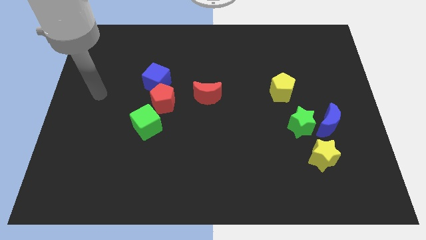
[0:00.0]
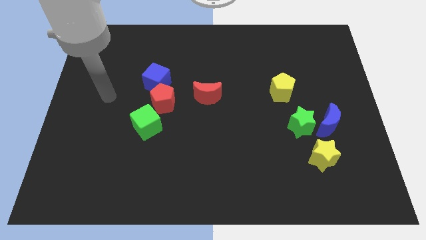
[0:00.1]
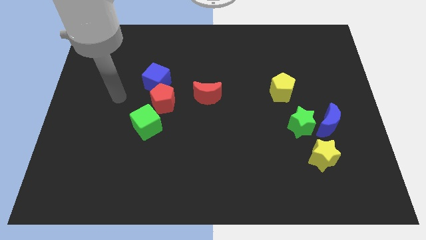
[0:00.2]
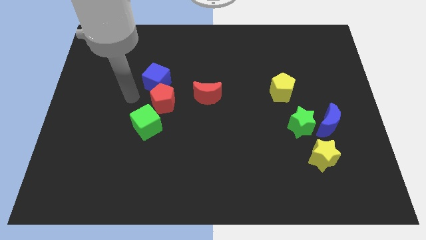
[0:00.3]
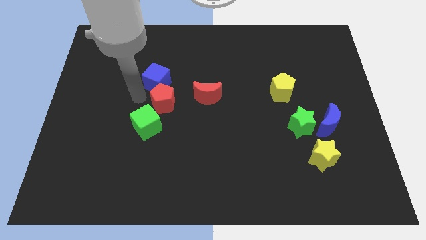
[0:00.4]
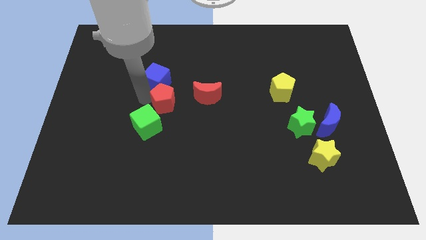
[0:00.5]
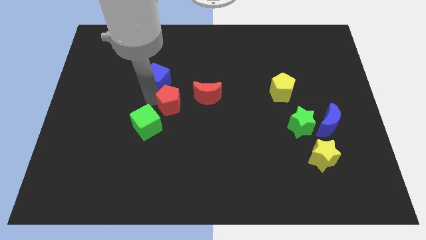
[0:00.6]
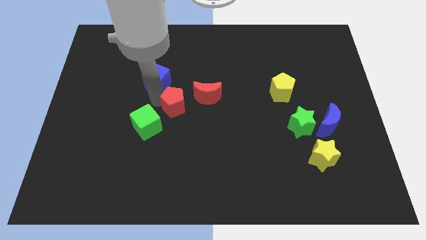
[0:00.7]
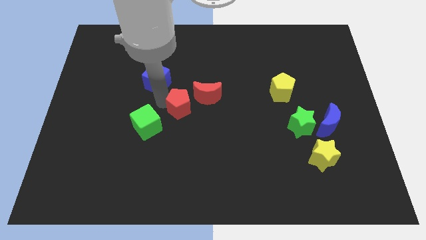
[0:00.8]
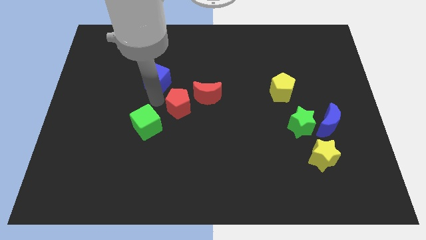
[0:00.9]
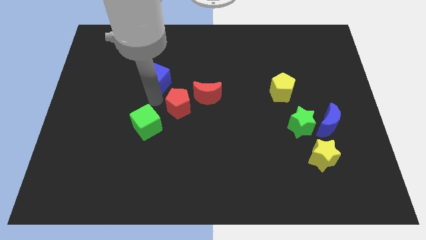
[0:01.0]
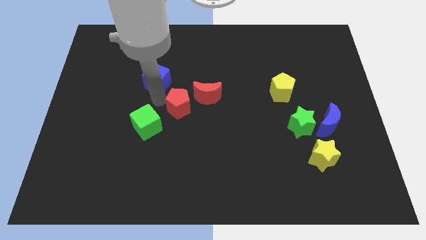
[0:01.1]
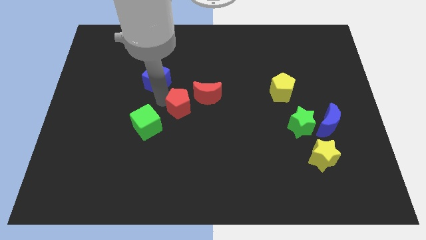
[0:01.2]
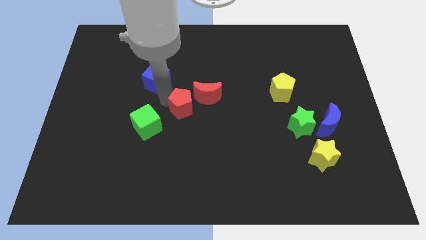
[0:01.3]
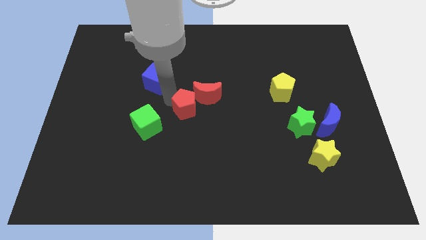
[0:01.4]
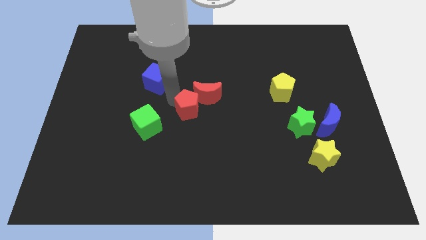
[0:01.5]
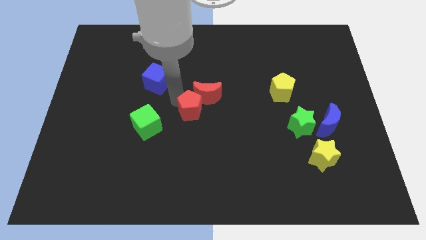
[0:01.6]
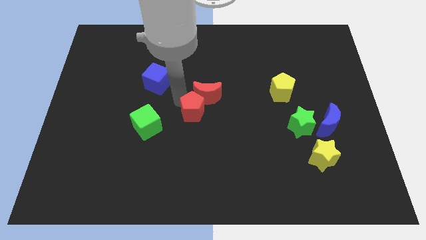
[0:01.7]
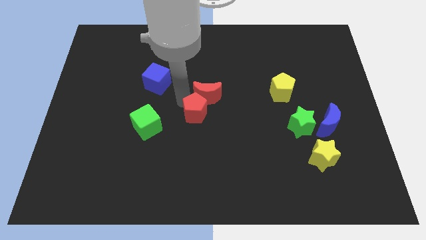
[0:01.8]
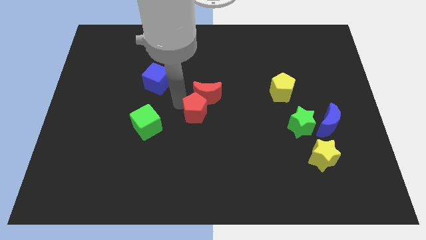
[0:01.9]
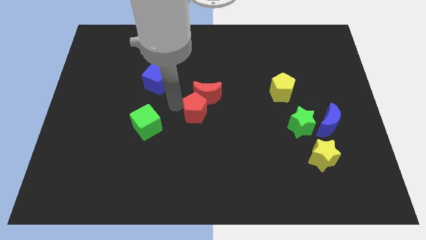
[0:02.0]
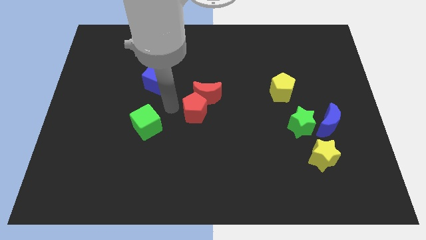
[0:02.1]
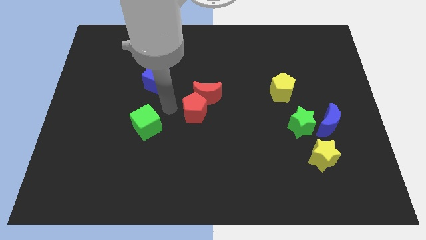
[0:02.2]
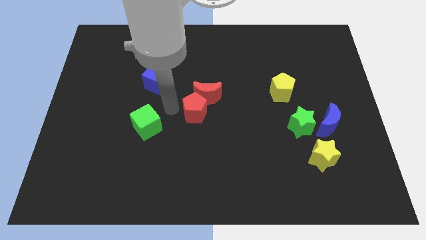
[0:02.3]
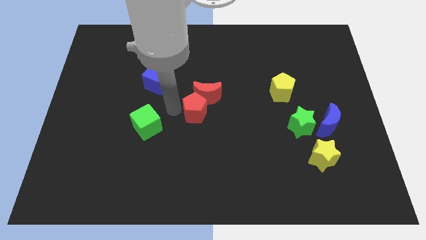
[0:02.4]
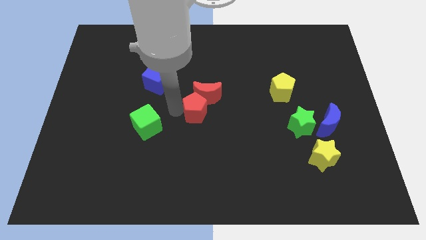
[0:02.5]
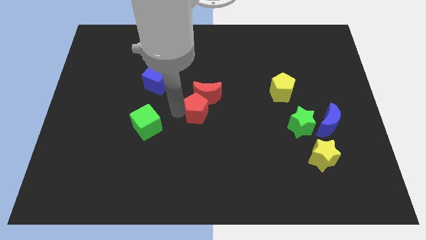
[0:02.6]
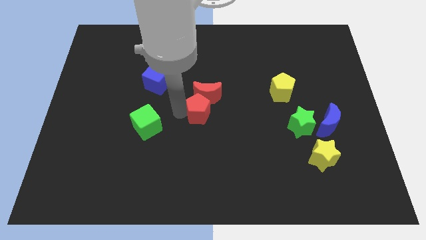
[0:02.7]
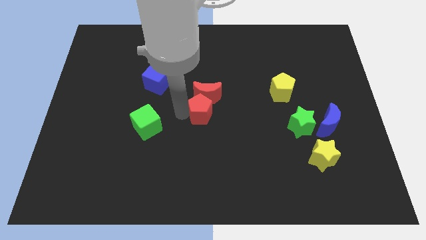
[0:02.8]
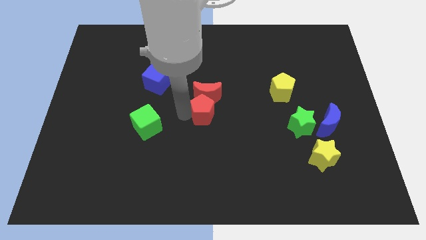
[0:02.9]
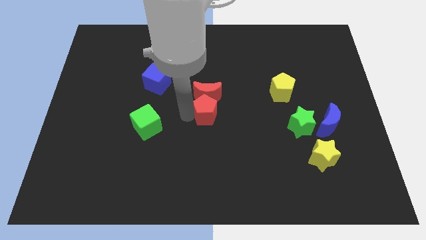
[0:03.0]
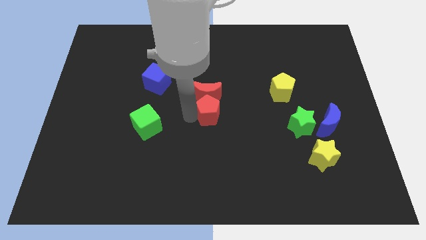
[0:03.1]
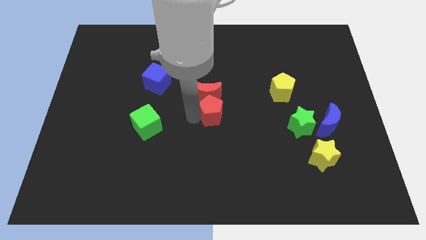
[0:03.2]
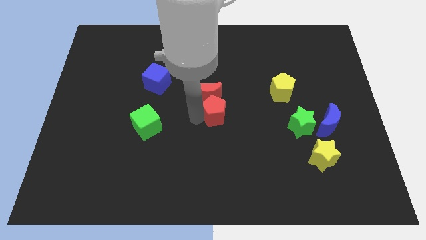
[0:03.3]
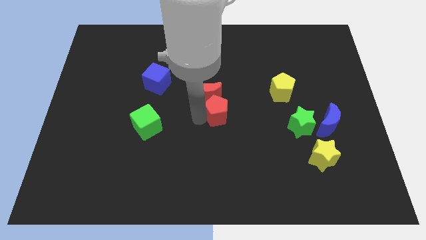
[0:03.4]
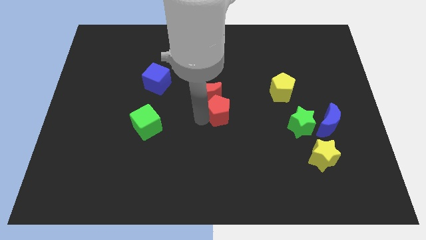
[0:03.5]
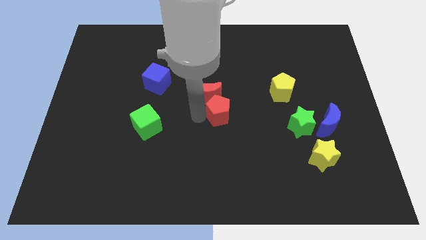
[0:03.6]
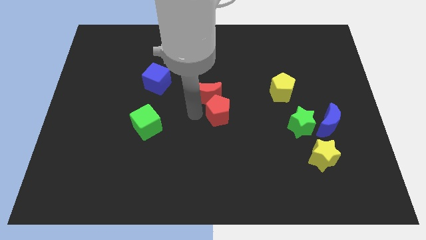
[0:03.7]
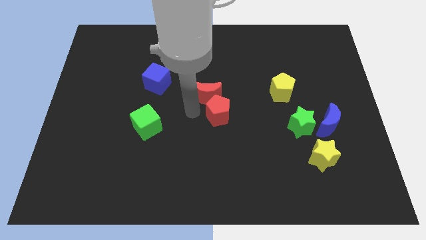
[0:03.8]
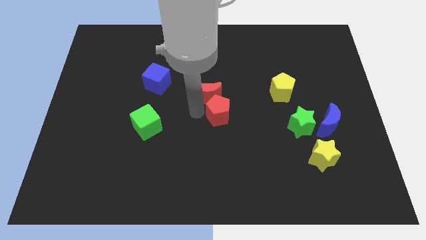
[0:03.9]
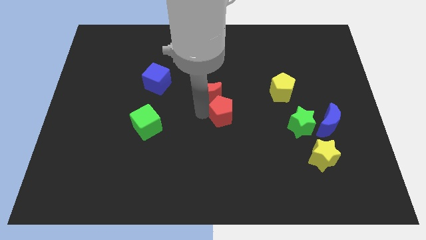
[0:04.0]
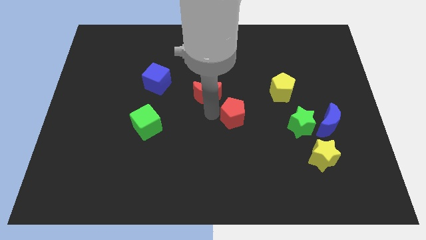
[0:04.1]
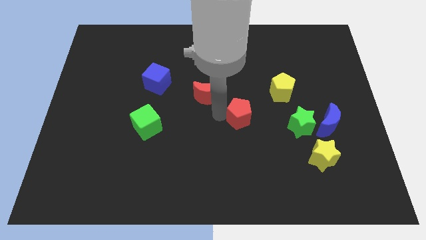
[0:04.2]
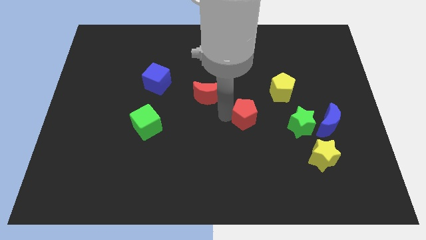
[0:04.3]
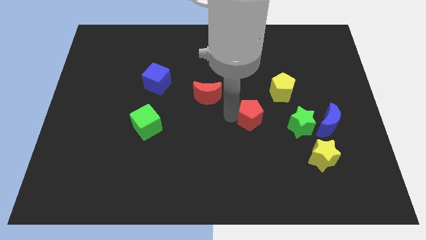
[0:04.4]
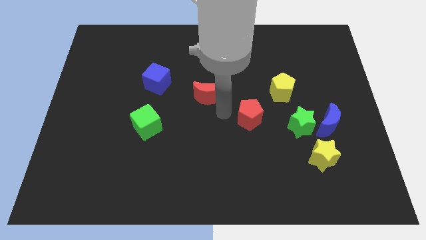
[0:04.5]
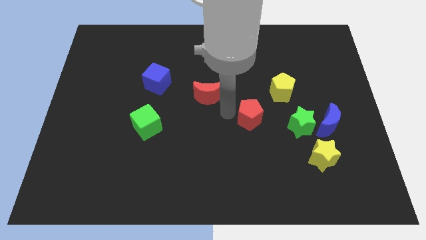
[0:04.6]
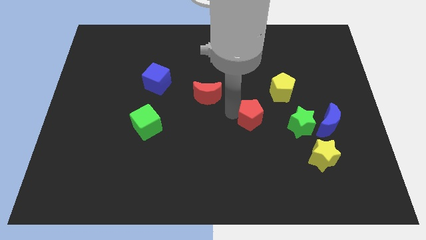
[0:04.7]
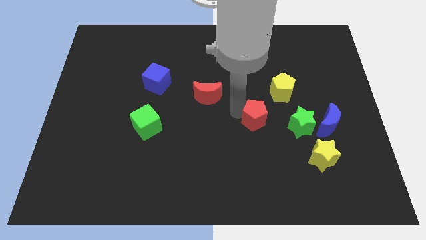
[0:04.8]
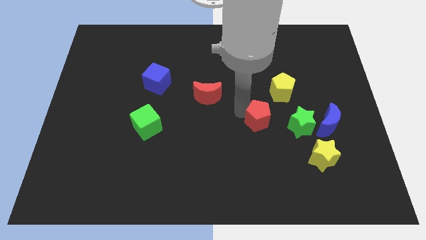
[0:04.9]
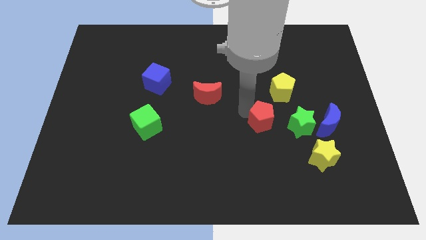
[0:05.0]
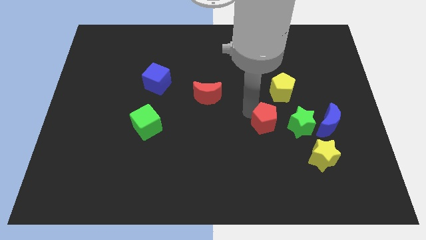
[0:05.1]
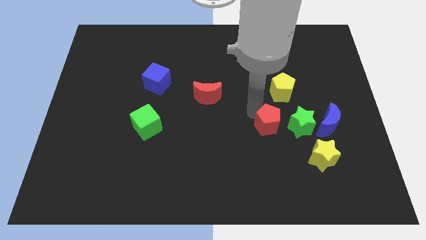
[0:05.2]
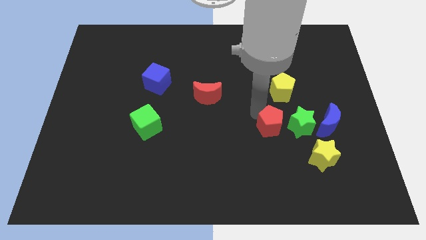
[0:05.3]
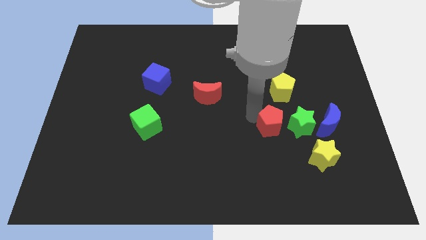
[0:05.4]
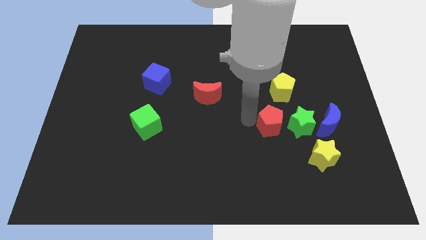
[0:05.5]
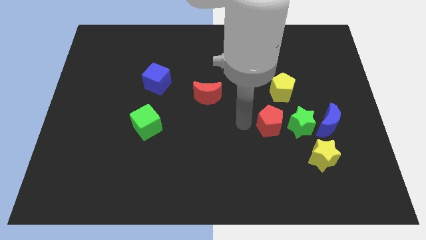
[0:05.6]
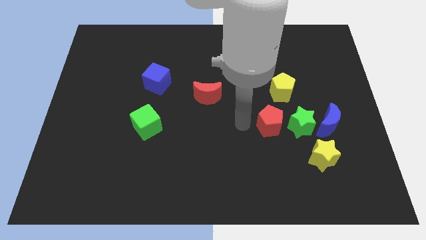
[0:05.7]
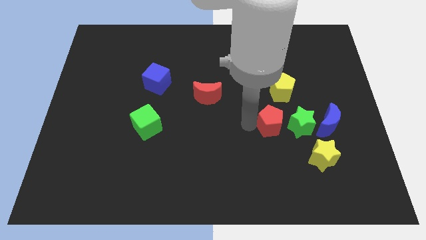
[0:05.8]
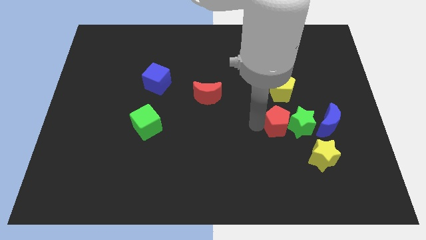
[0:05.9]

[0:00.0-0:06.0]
push the red pentagon close to the green star
